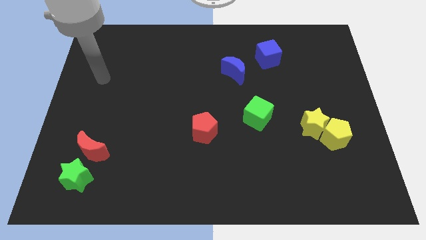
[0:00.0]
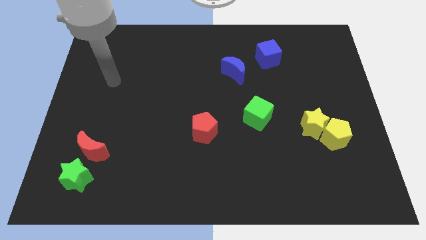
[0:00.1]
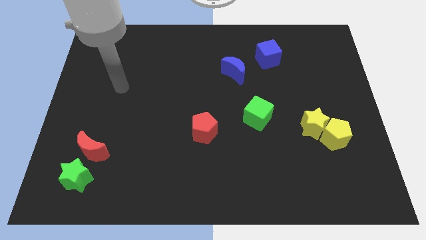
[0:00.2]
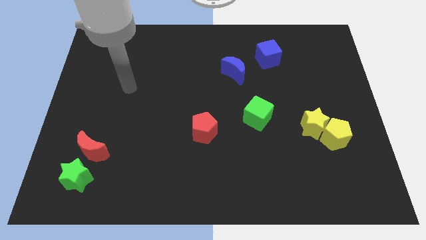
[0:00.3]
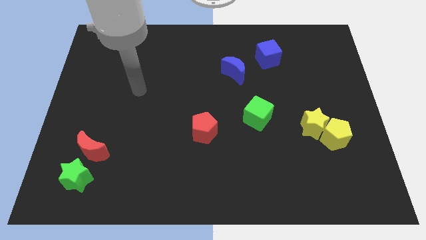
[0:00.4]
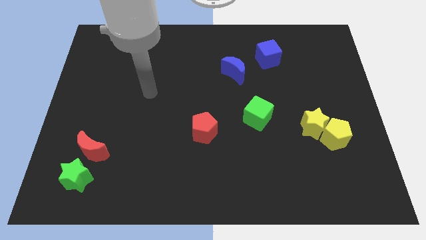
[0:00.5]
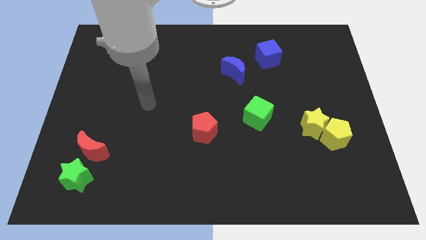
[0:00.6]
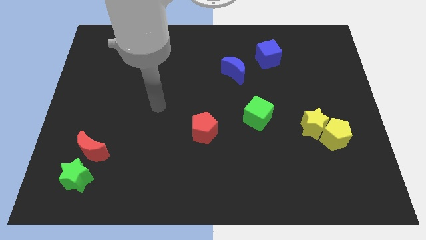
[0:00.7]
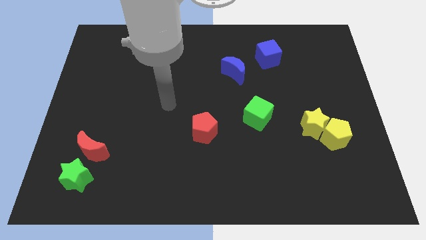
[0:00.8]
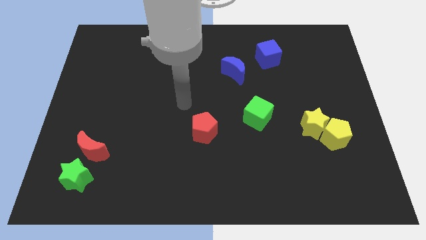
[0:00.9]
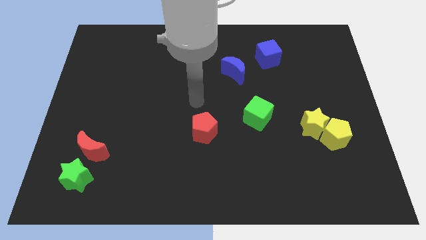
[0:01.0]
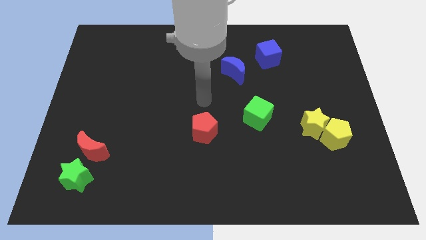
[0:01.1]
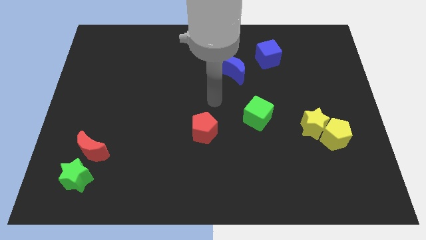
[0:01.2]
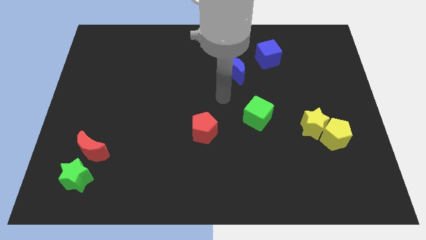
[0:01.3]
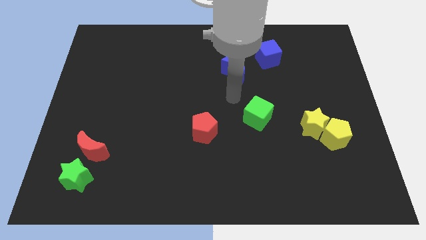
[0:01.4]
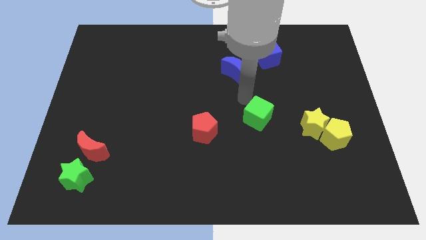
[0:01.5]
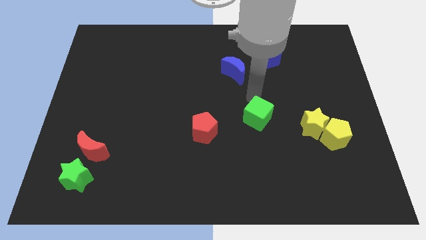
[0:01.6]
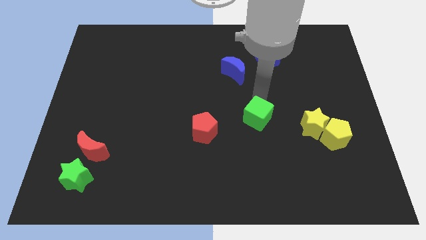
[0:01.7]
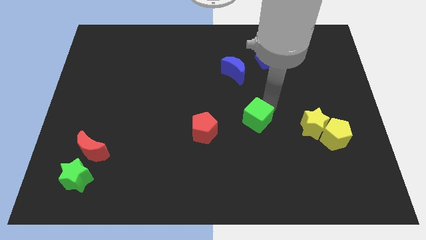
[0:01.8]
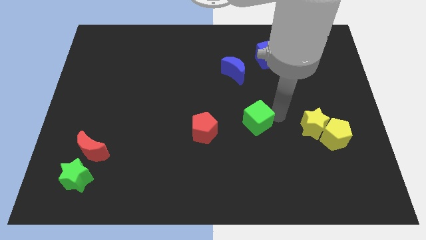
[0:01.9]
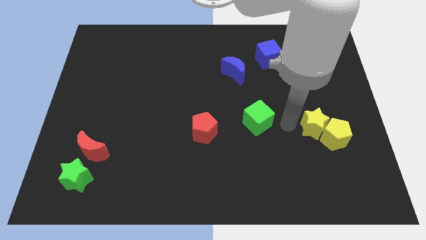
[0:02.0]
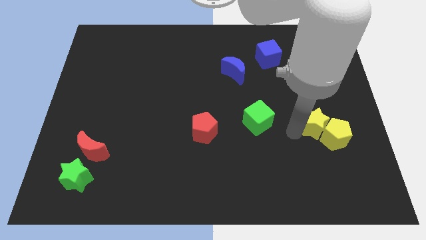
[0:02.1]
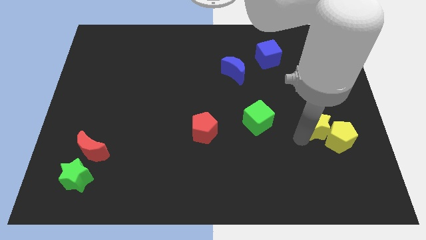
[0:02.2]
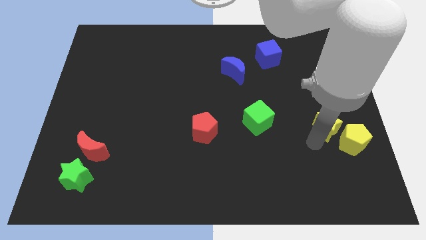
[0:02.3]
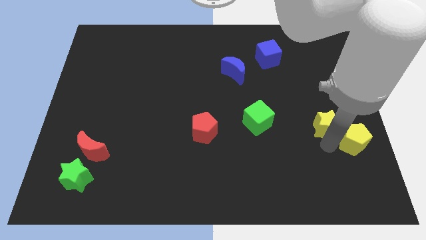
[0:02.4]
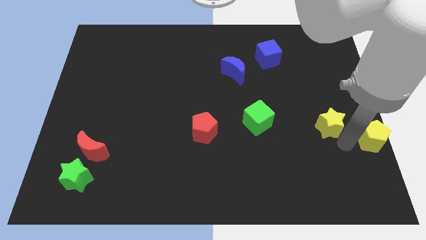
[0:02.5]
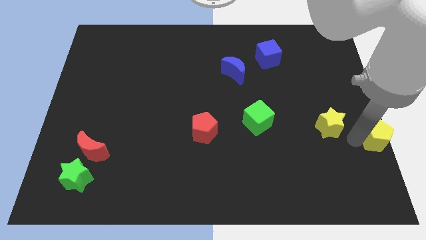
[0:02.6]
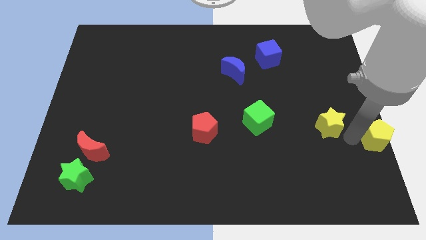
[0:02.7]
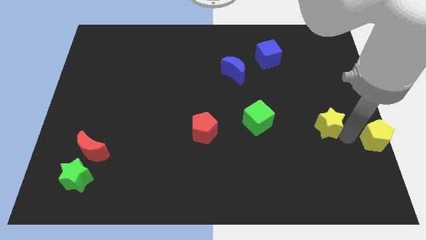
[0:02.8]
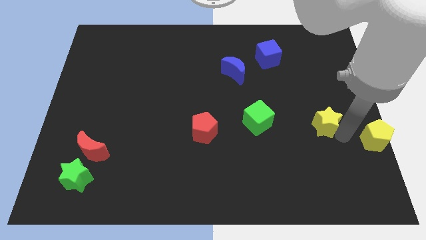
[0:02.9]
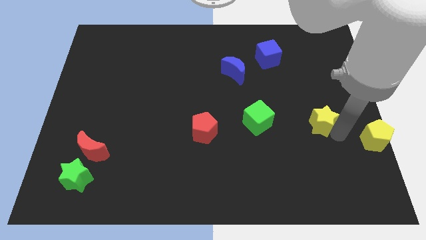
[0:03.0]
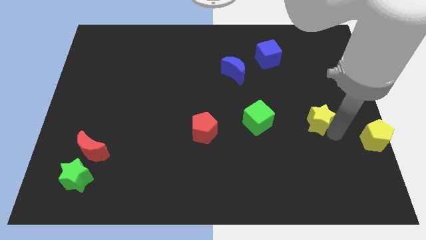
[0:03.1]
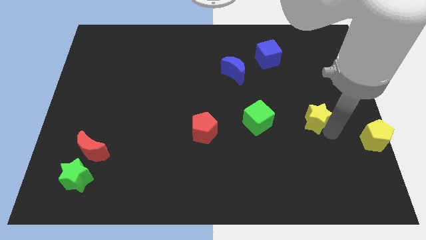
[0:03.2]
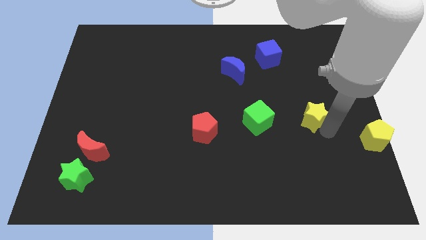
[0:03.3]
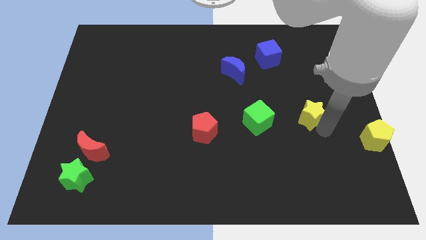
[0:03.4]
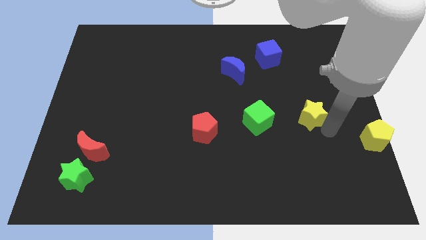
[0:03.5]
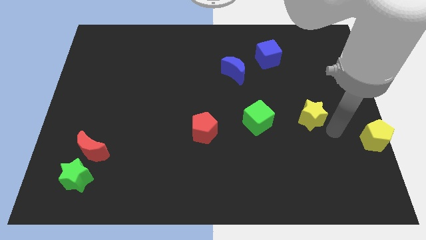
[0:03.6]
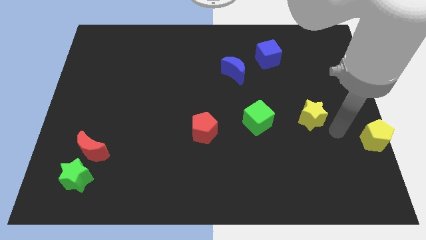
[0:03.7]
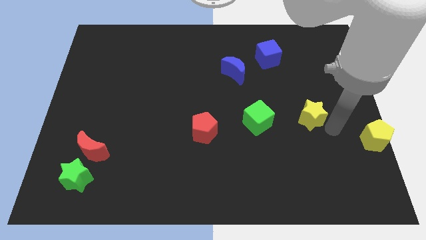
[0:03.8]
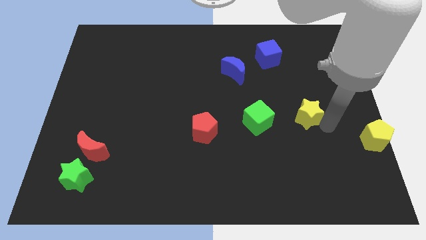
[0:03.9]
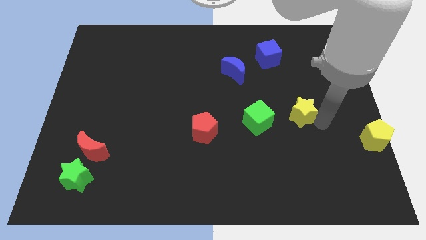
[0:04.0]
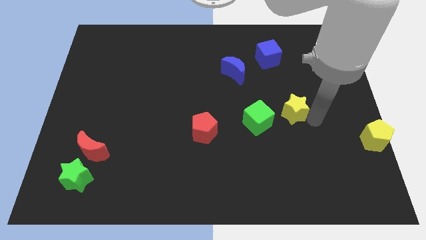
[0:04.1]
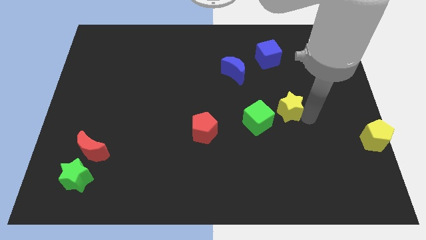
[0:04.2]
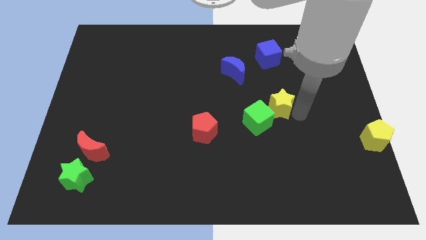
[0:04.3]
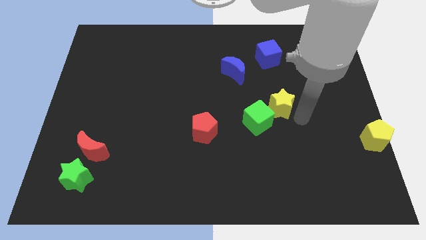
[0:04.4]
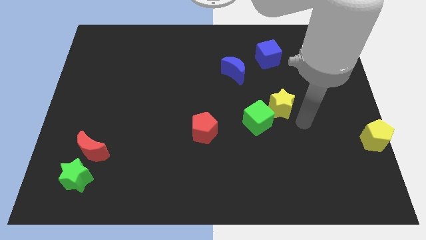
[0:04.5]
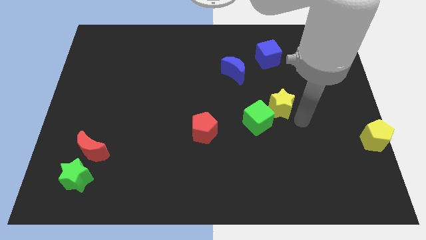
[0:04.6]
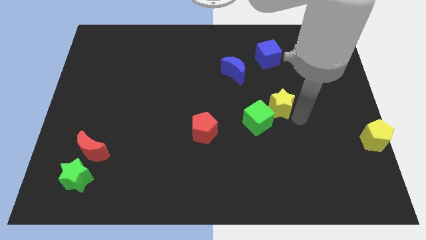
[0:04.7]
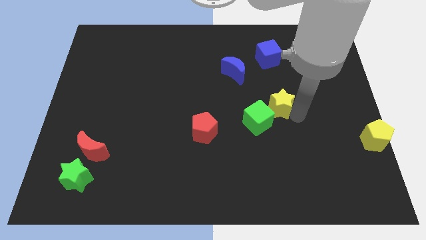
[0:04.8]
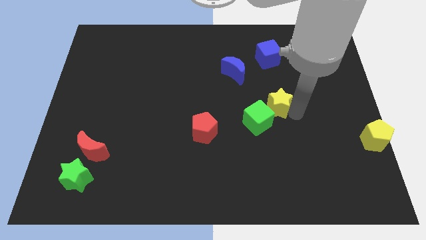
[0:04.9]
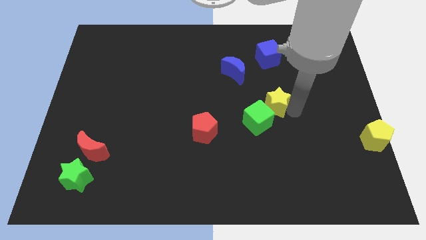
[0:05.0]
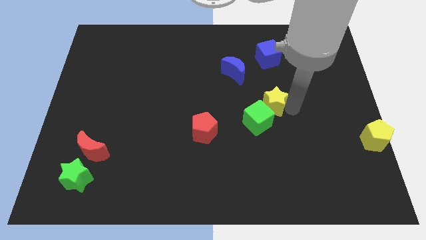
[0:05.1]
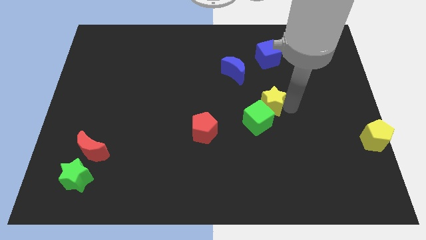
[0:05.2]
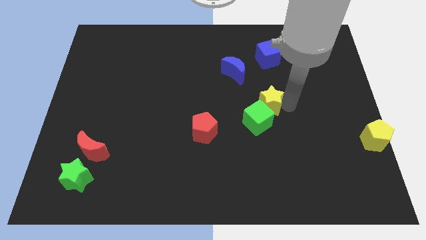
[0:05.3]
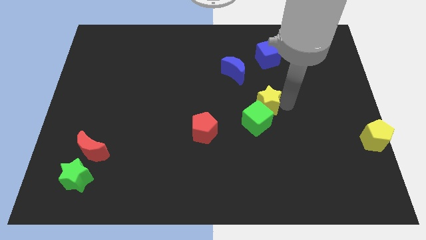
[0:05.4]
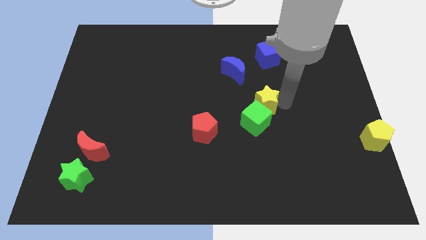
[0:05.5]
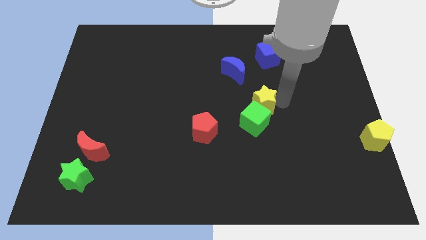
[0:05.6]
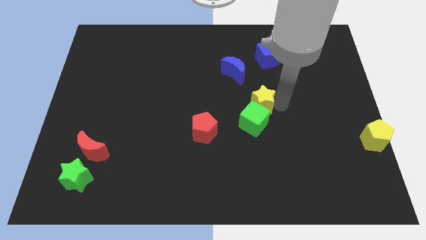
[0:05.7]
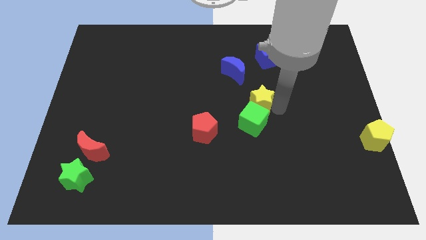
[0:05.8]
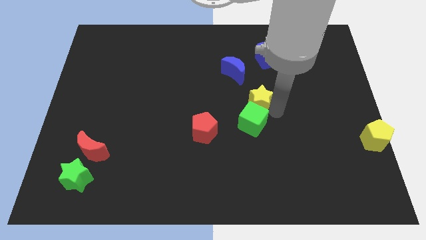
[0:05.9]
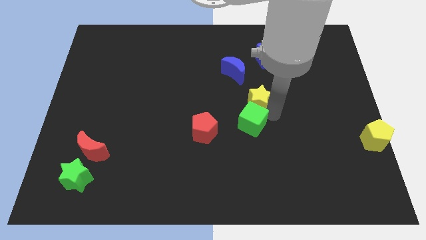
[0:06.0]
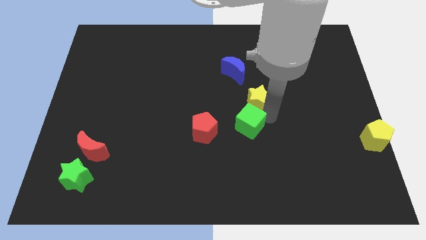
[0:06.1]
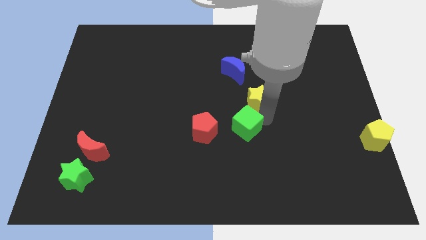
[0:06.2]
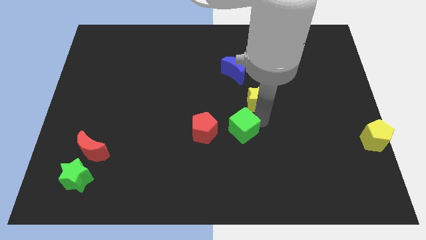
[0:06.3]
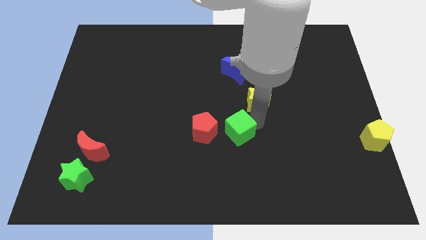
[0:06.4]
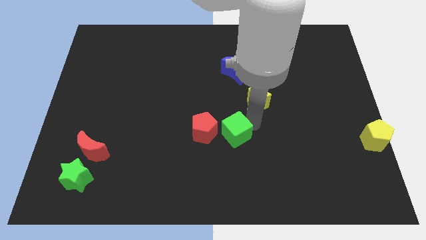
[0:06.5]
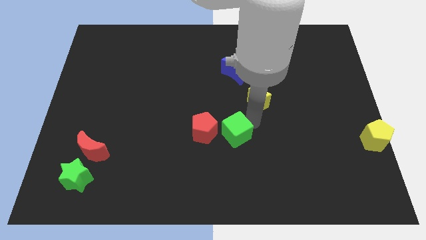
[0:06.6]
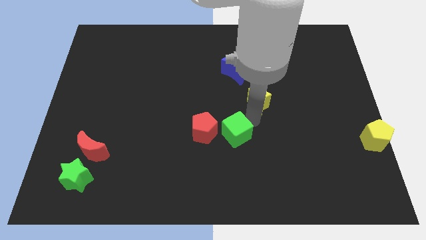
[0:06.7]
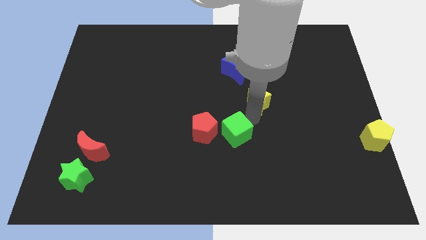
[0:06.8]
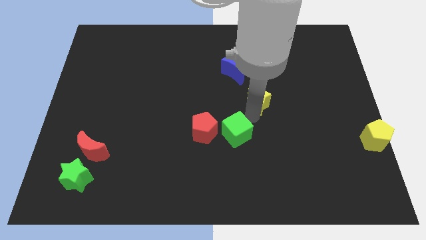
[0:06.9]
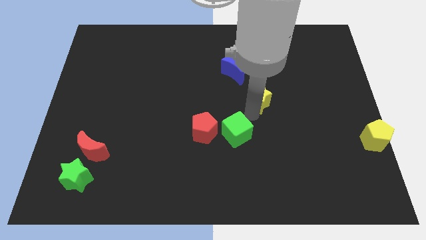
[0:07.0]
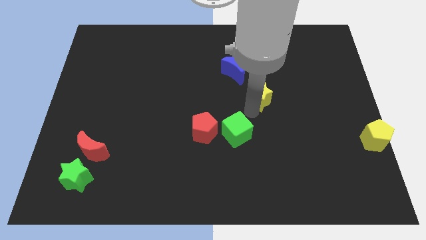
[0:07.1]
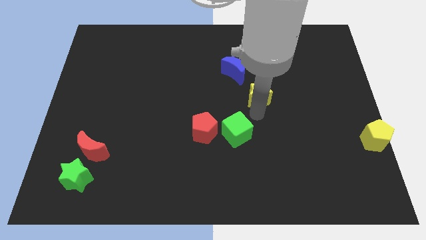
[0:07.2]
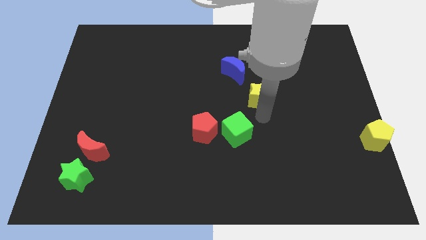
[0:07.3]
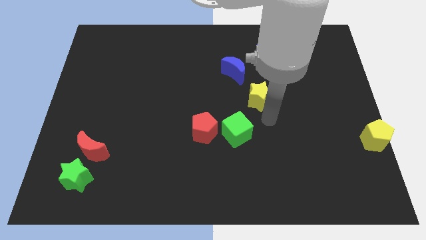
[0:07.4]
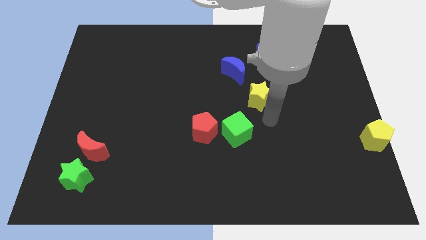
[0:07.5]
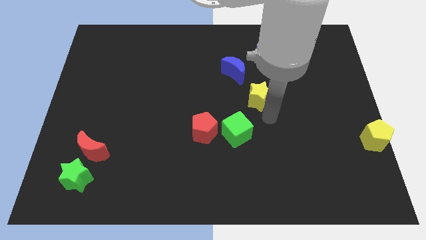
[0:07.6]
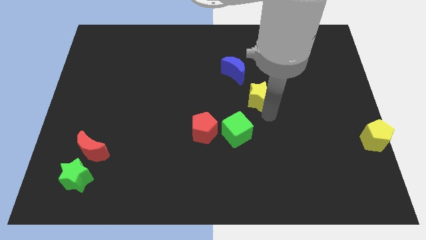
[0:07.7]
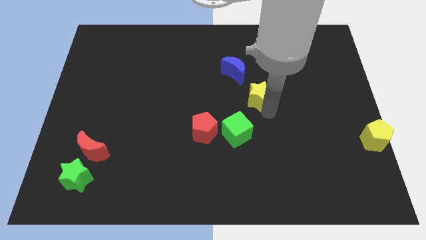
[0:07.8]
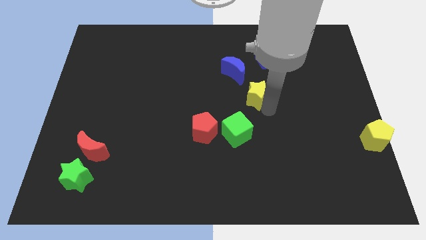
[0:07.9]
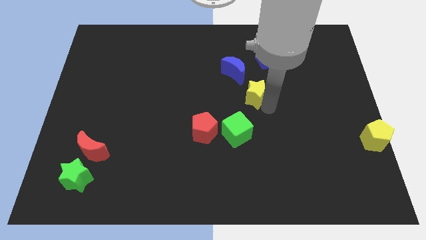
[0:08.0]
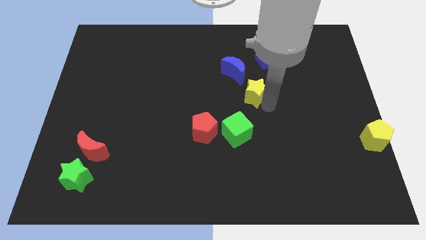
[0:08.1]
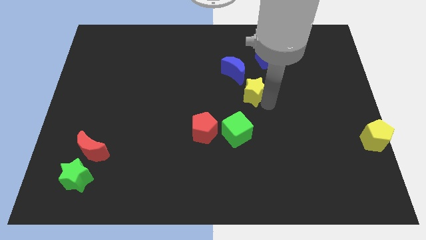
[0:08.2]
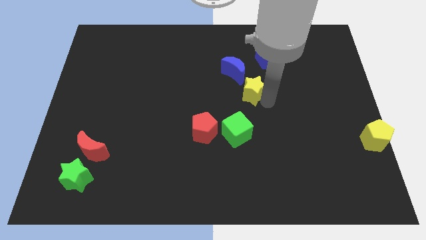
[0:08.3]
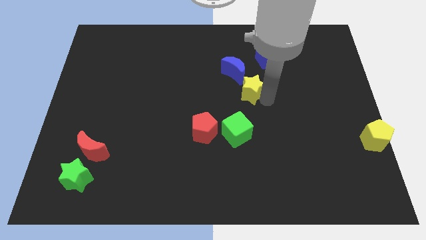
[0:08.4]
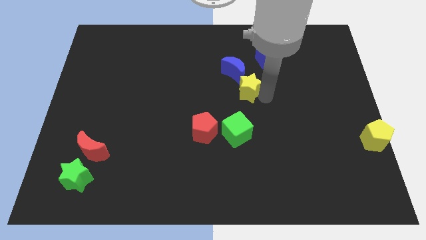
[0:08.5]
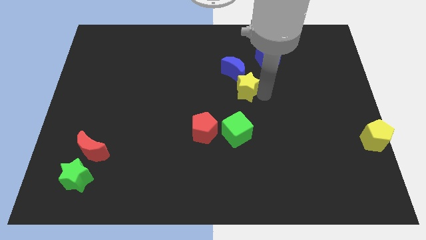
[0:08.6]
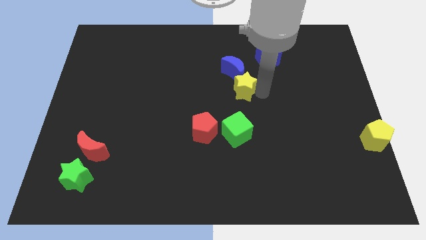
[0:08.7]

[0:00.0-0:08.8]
slide the yellow star close to the blue moon
